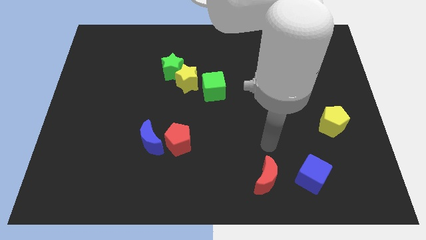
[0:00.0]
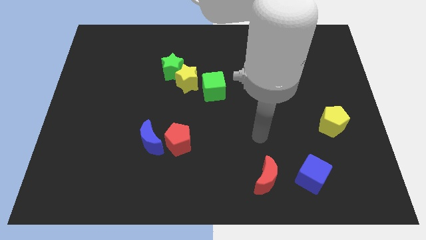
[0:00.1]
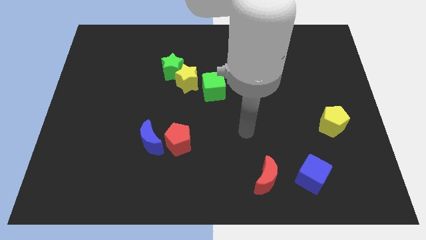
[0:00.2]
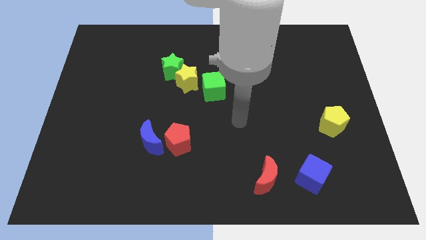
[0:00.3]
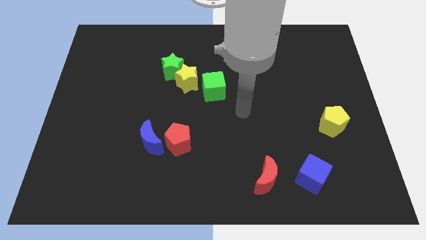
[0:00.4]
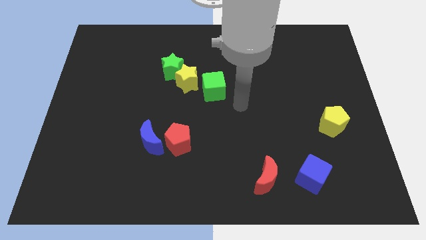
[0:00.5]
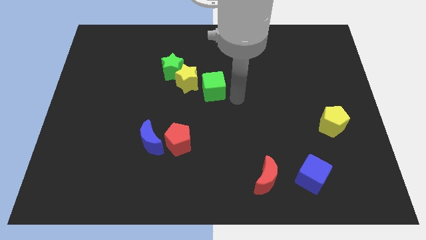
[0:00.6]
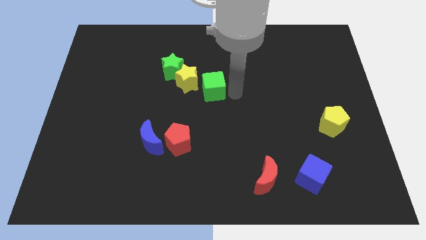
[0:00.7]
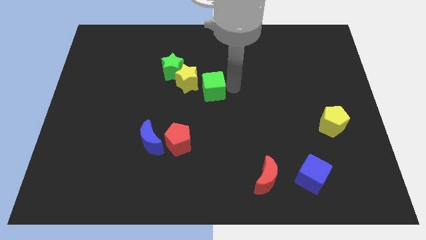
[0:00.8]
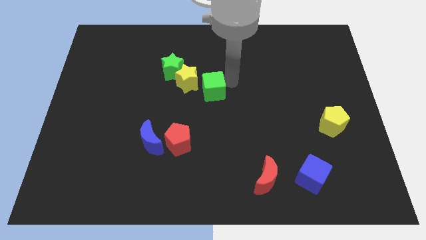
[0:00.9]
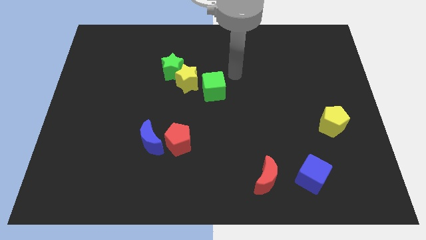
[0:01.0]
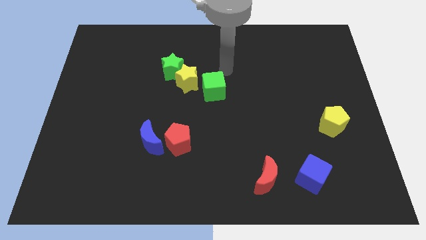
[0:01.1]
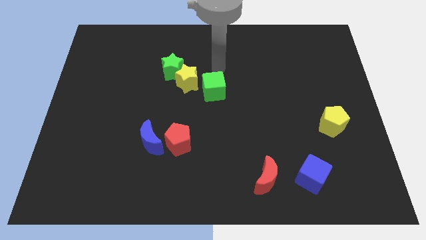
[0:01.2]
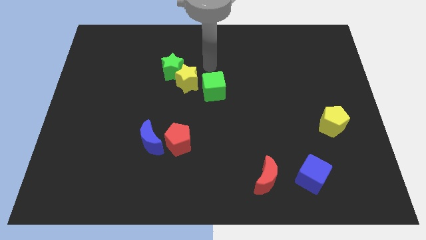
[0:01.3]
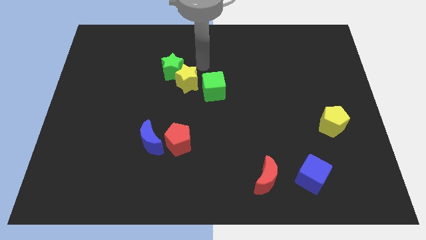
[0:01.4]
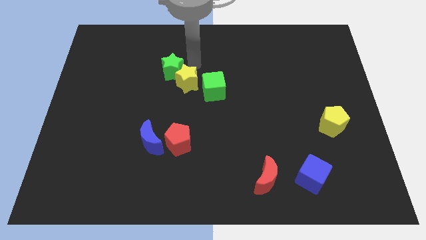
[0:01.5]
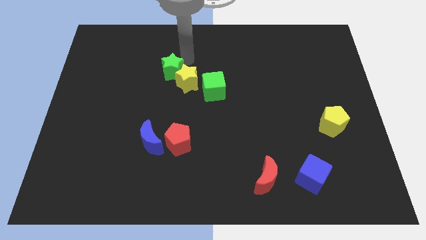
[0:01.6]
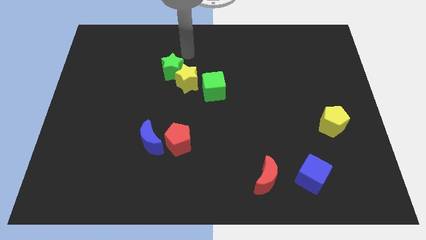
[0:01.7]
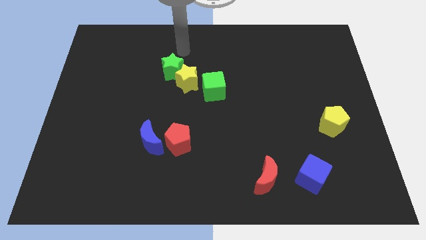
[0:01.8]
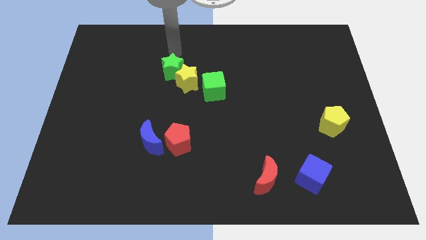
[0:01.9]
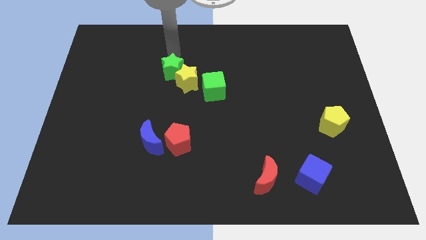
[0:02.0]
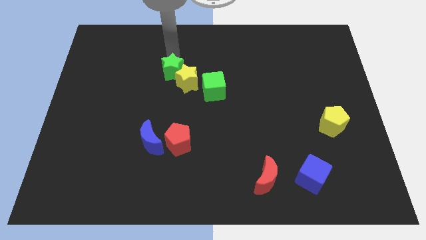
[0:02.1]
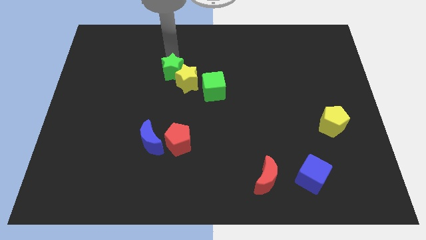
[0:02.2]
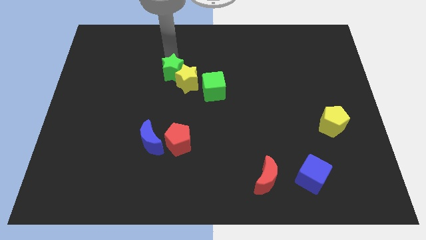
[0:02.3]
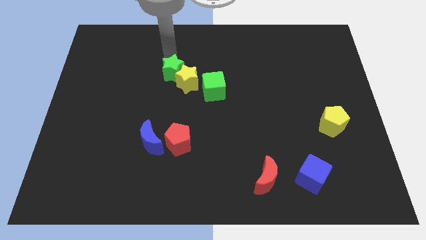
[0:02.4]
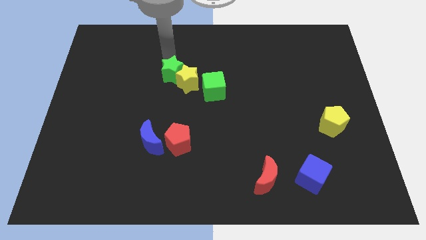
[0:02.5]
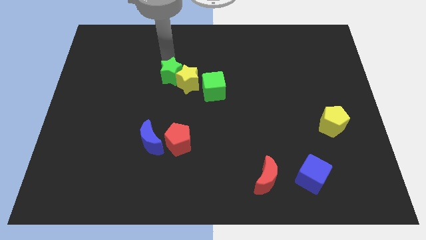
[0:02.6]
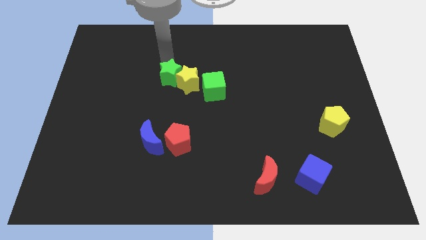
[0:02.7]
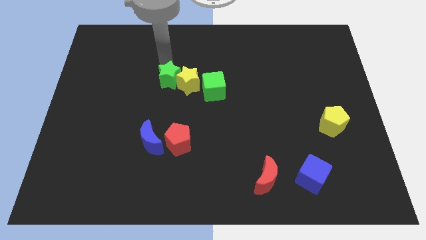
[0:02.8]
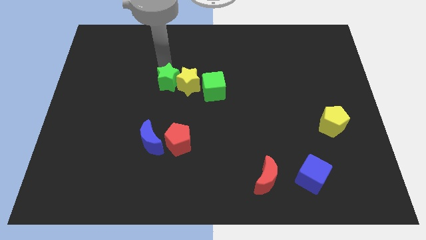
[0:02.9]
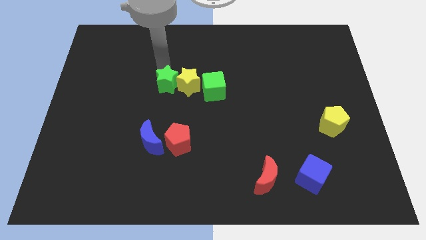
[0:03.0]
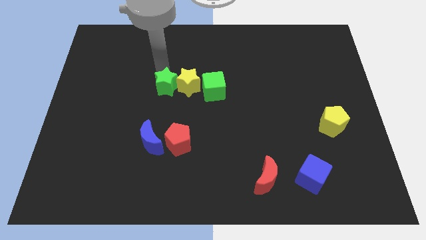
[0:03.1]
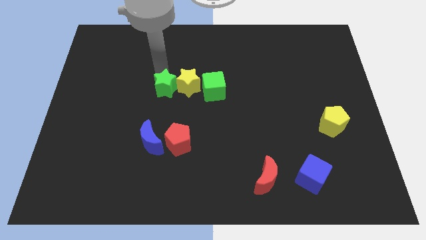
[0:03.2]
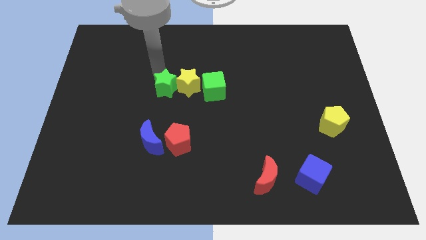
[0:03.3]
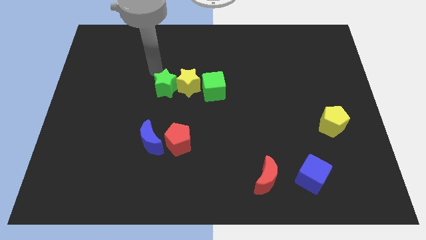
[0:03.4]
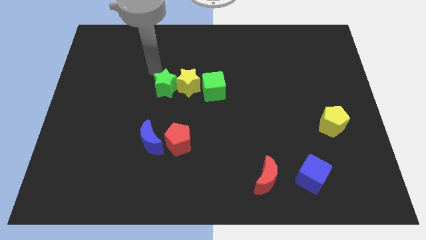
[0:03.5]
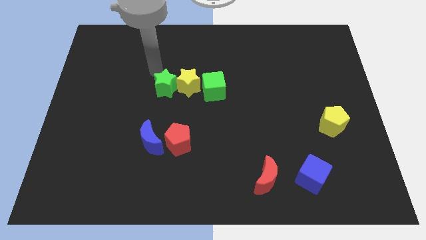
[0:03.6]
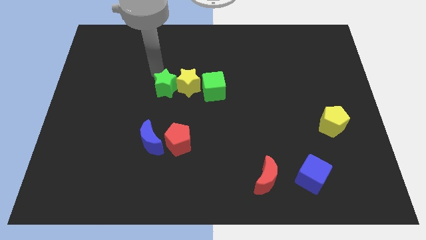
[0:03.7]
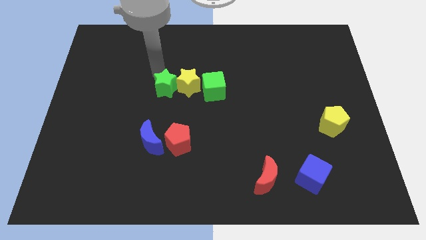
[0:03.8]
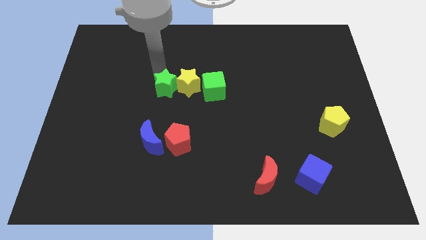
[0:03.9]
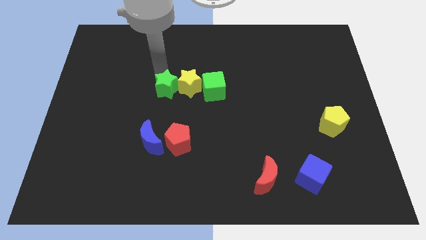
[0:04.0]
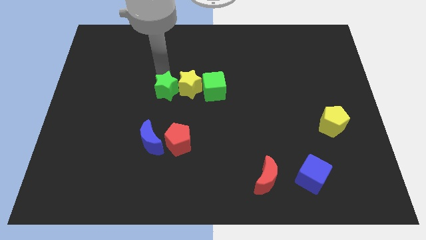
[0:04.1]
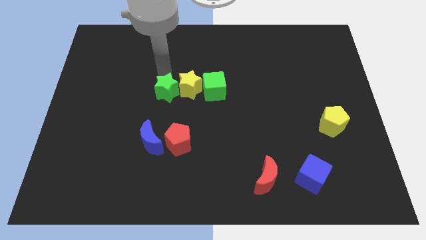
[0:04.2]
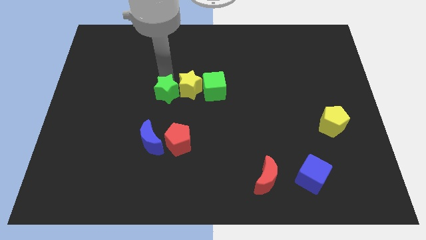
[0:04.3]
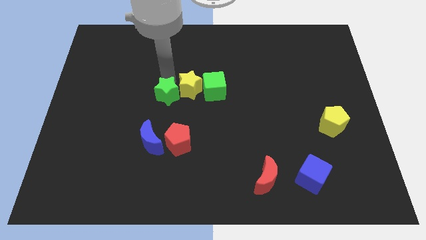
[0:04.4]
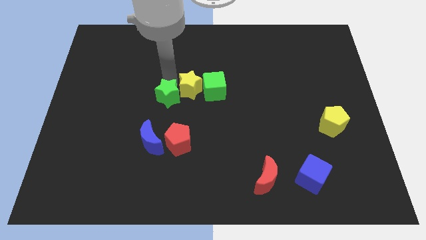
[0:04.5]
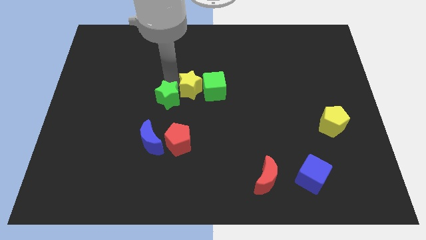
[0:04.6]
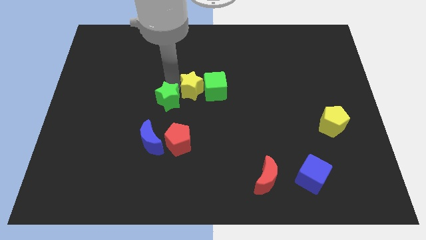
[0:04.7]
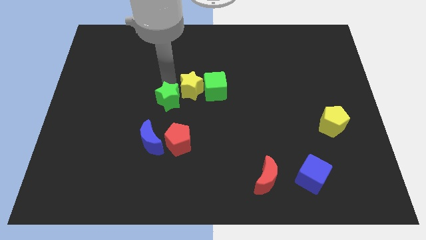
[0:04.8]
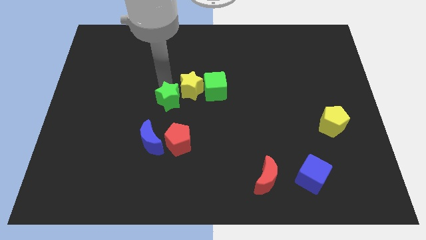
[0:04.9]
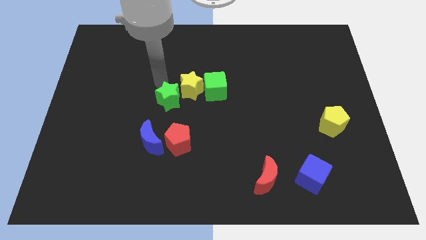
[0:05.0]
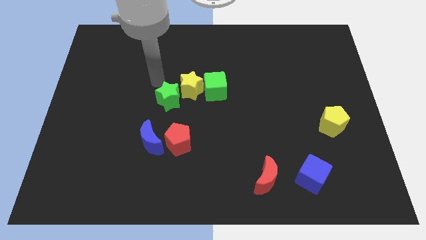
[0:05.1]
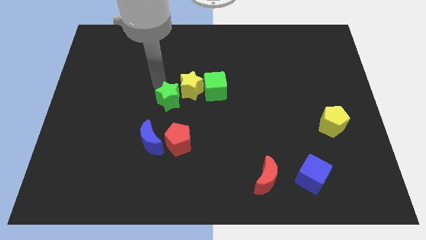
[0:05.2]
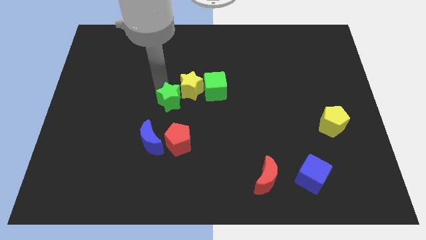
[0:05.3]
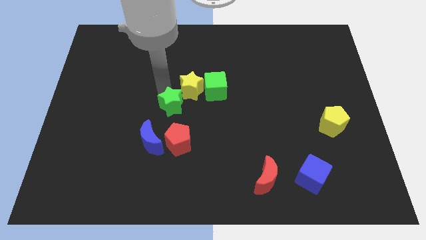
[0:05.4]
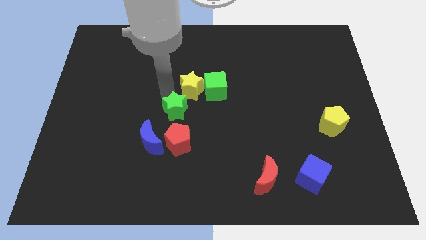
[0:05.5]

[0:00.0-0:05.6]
put the green star to the top right side of the blue moon

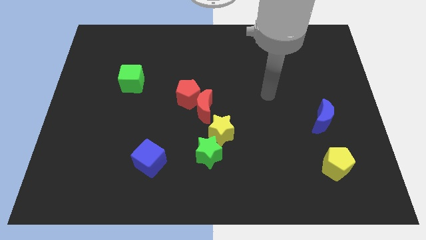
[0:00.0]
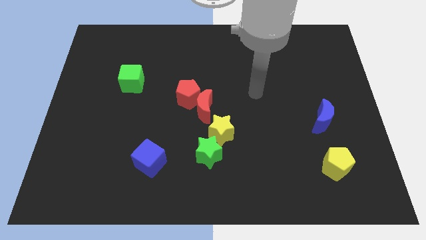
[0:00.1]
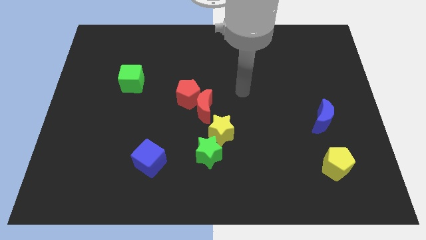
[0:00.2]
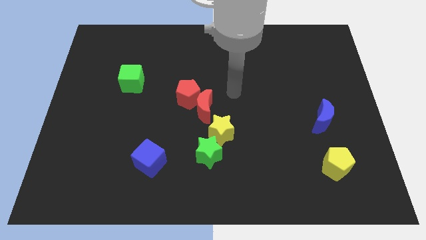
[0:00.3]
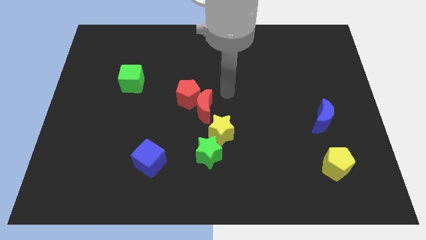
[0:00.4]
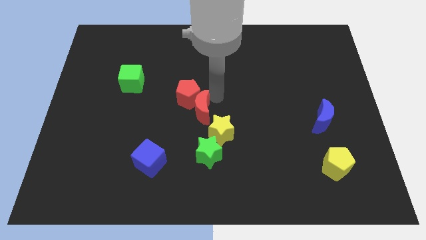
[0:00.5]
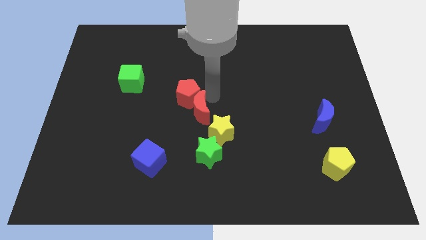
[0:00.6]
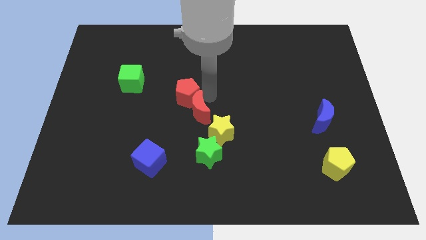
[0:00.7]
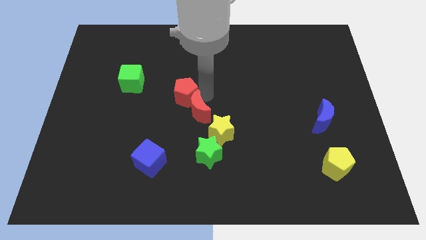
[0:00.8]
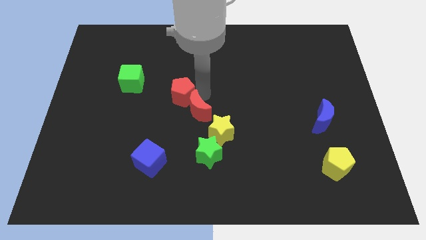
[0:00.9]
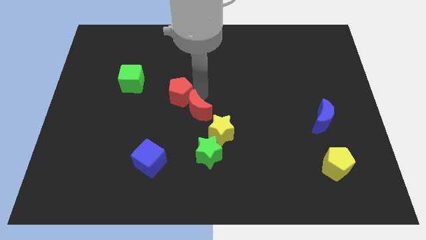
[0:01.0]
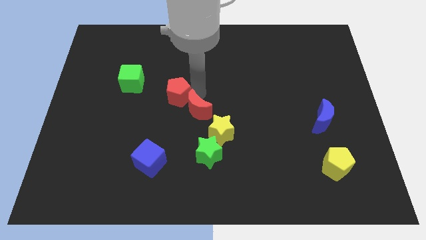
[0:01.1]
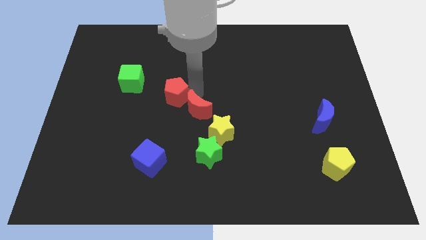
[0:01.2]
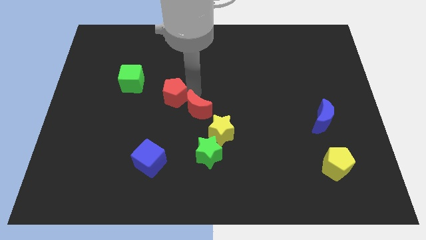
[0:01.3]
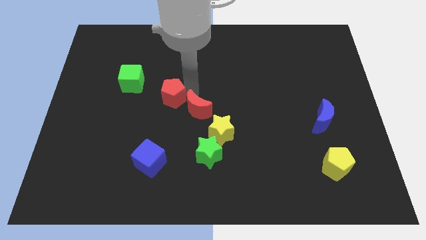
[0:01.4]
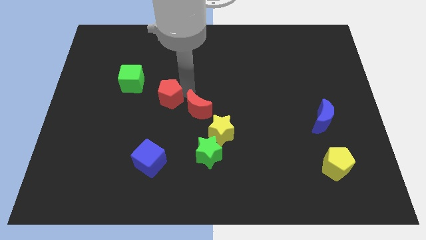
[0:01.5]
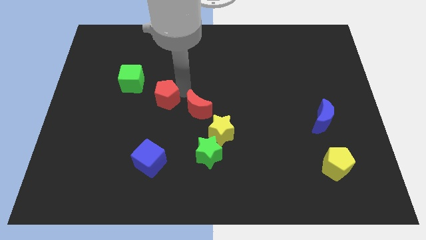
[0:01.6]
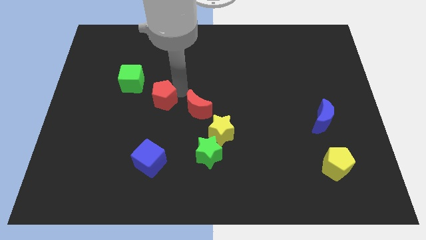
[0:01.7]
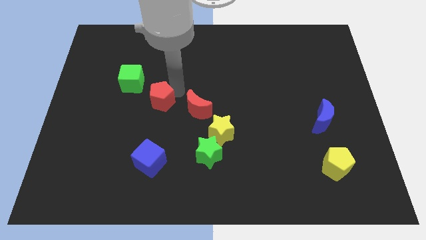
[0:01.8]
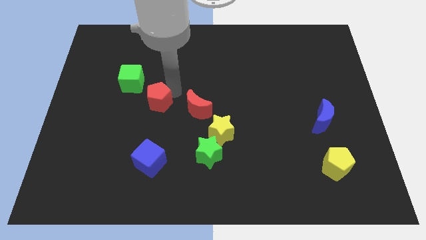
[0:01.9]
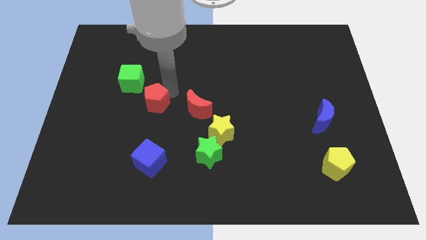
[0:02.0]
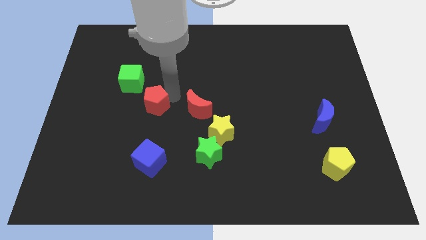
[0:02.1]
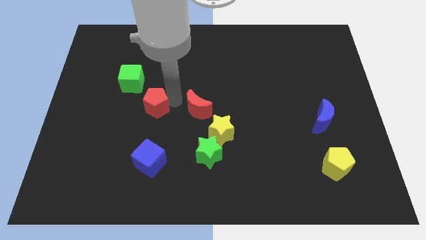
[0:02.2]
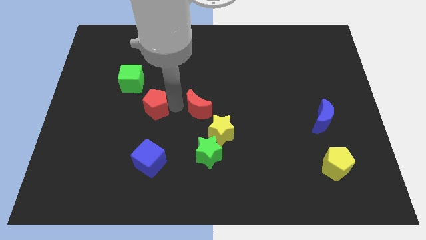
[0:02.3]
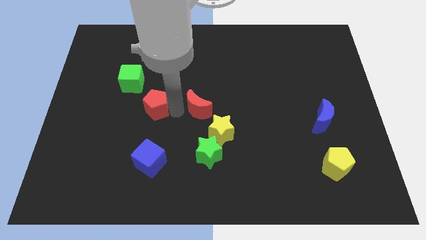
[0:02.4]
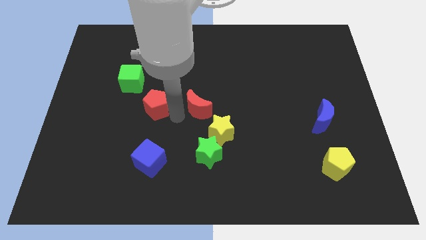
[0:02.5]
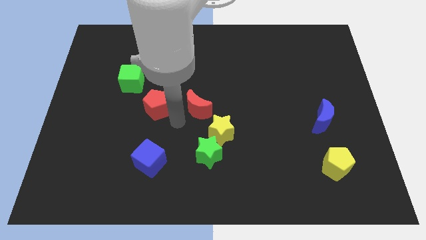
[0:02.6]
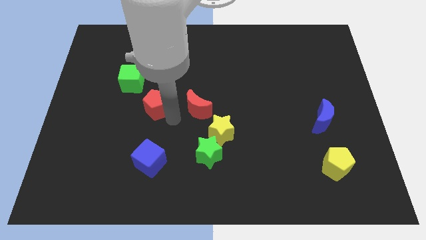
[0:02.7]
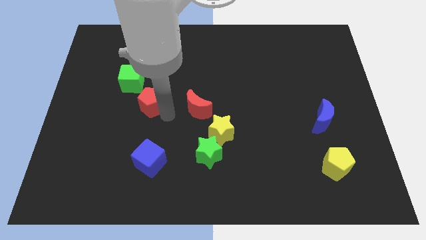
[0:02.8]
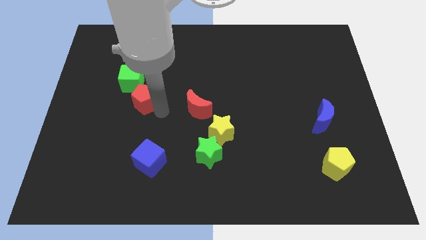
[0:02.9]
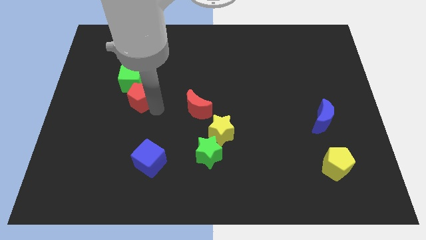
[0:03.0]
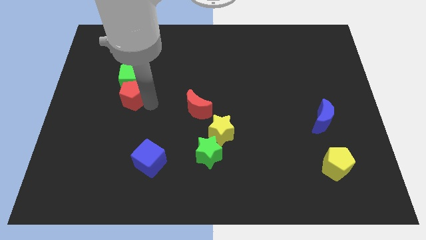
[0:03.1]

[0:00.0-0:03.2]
move the red pentagon diagonally down and to the left of the green cube
